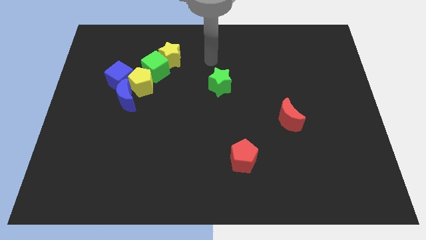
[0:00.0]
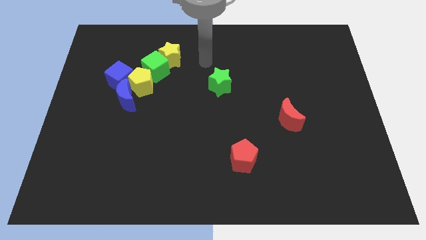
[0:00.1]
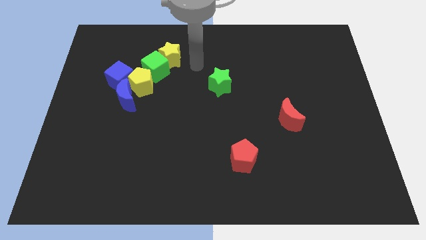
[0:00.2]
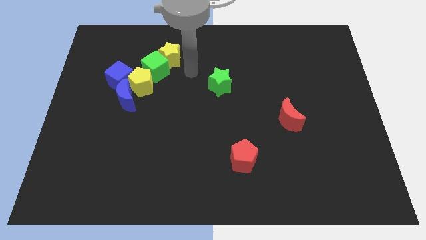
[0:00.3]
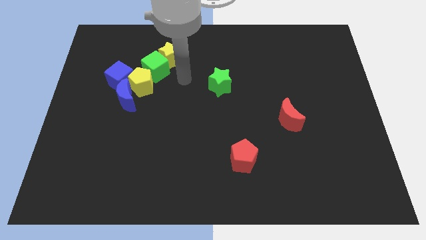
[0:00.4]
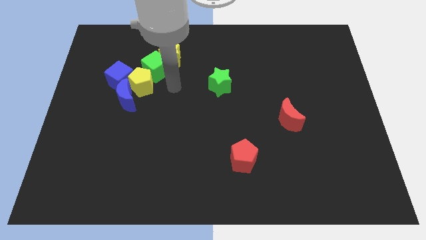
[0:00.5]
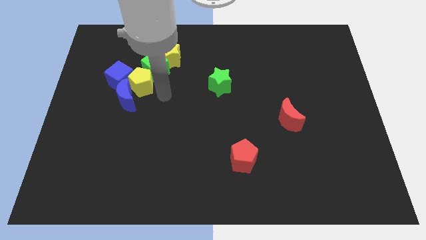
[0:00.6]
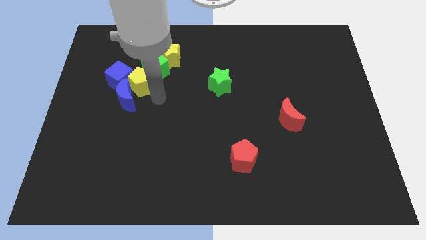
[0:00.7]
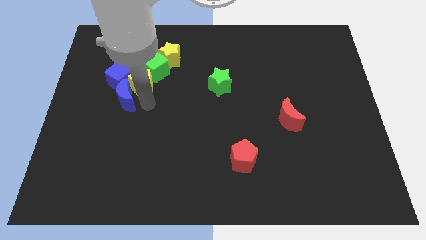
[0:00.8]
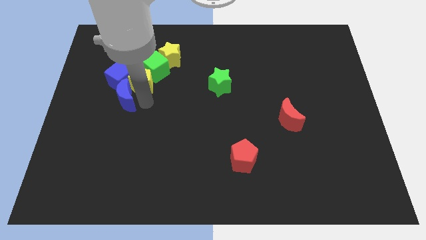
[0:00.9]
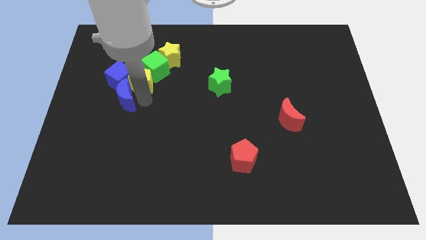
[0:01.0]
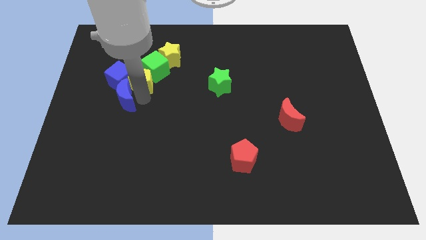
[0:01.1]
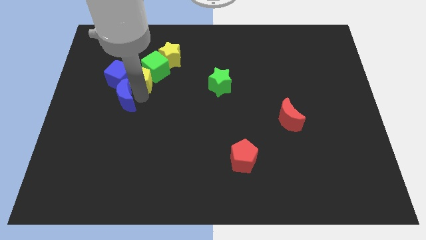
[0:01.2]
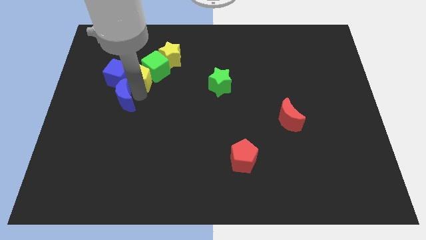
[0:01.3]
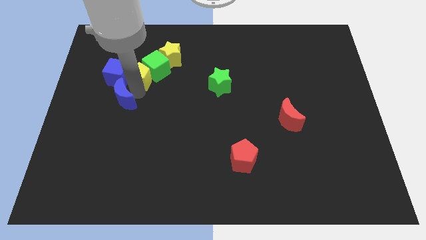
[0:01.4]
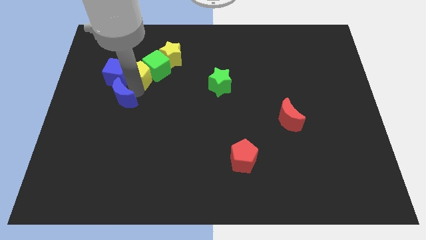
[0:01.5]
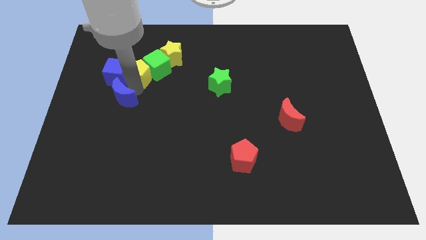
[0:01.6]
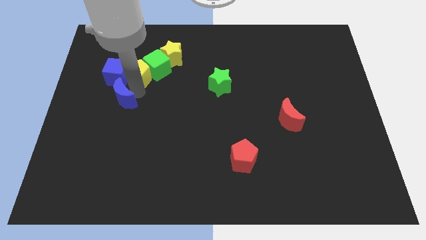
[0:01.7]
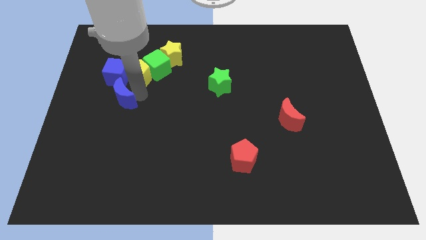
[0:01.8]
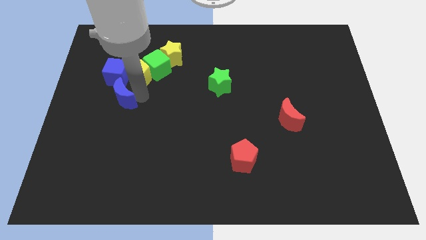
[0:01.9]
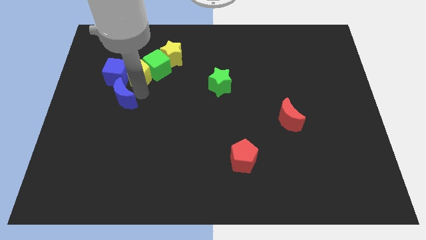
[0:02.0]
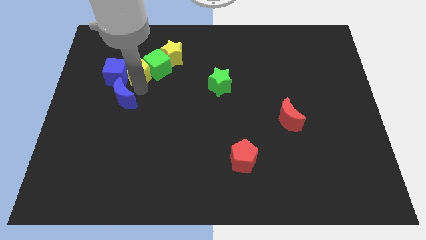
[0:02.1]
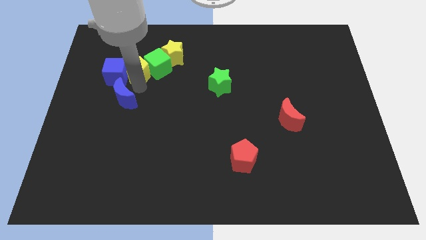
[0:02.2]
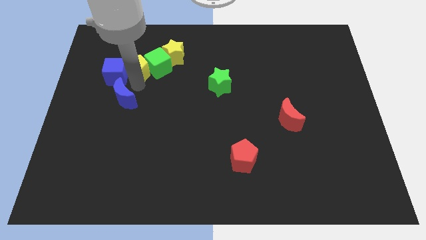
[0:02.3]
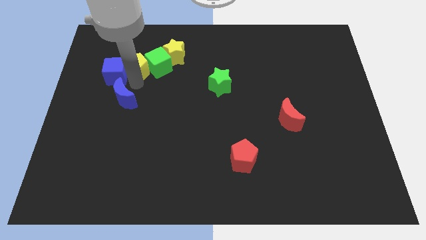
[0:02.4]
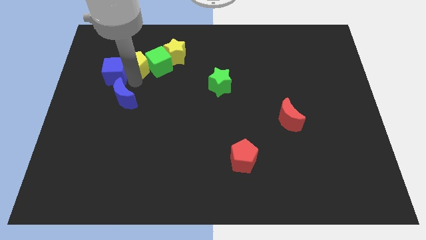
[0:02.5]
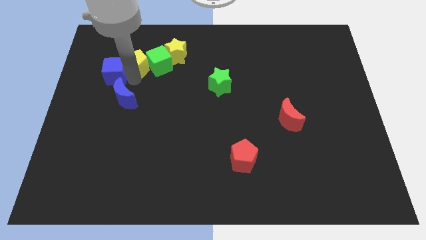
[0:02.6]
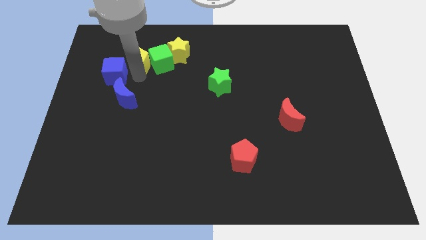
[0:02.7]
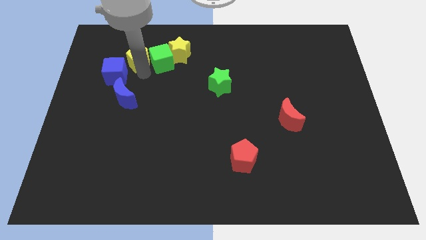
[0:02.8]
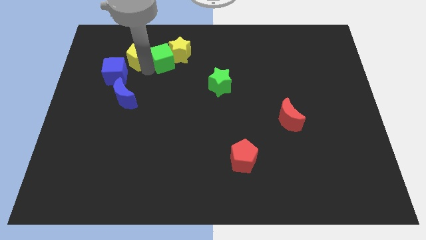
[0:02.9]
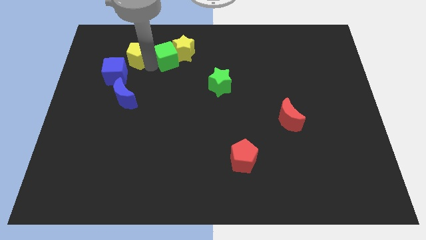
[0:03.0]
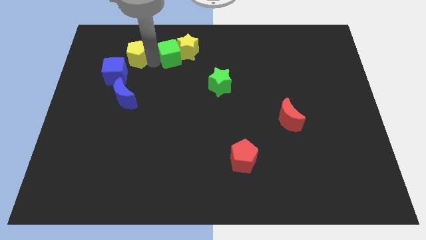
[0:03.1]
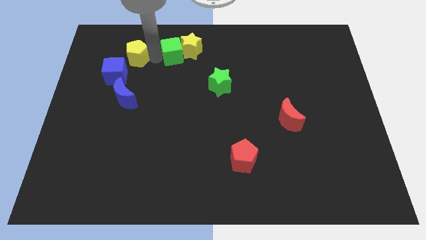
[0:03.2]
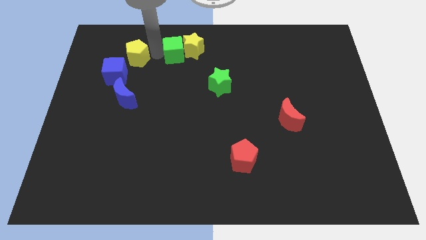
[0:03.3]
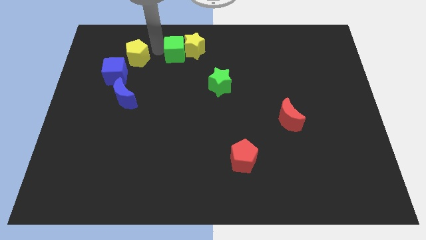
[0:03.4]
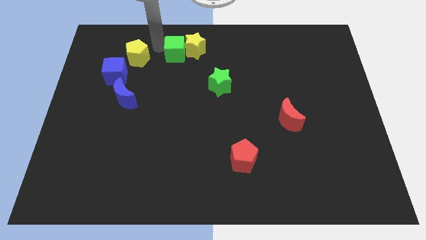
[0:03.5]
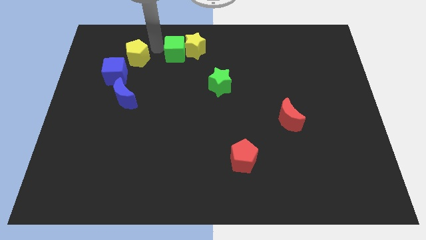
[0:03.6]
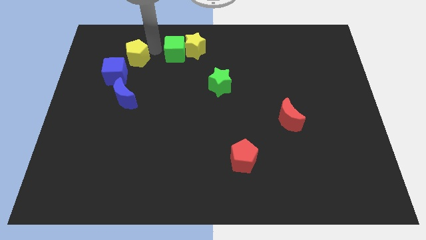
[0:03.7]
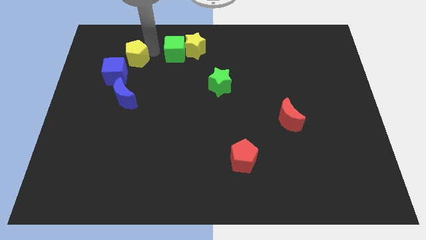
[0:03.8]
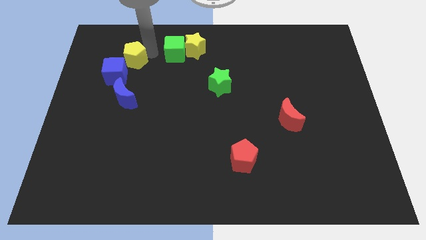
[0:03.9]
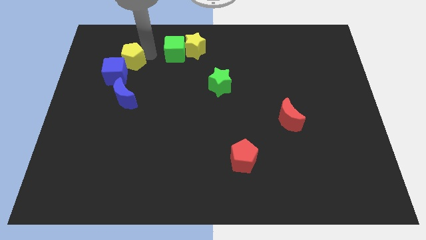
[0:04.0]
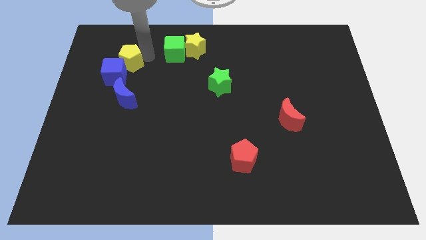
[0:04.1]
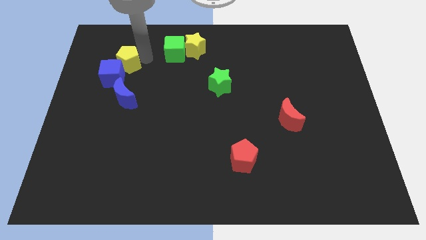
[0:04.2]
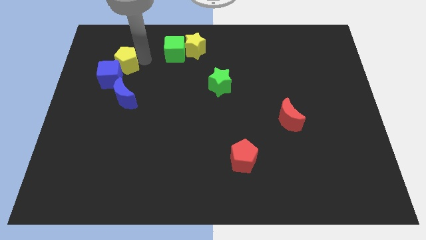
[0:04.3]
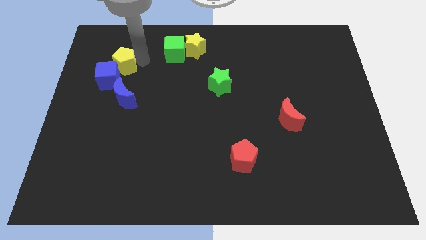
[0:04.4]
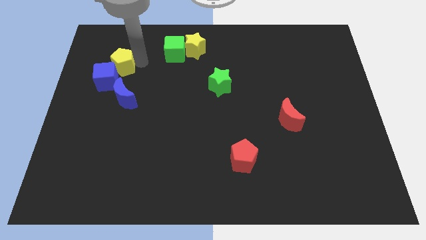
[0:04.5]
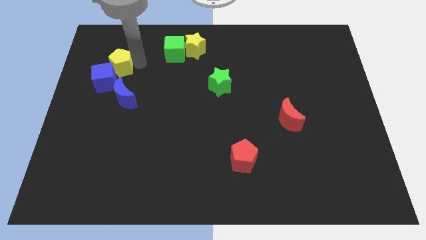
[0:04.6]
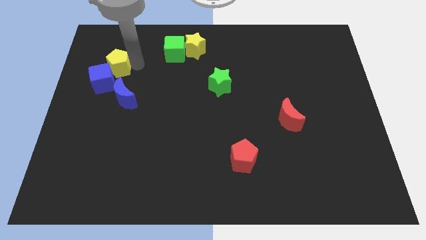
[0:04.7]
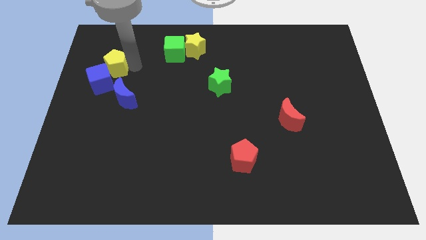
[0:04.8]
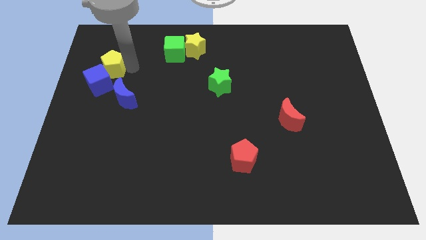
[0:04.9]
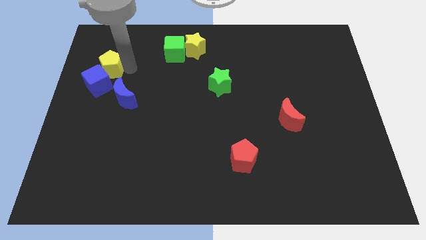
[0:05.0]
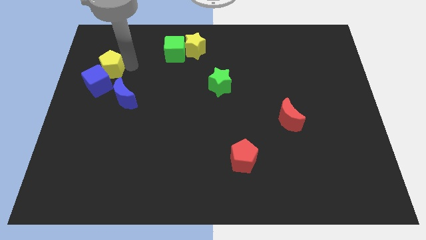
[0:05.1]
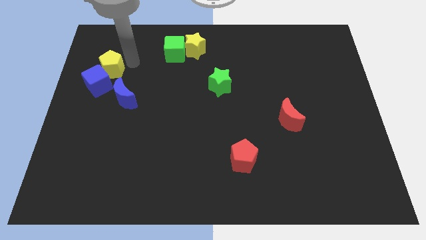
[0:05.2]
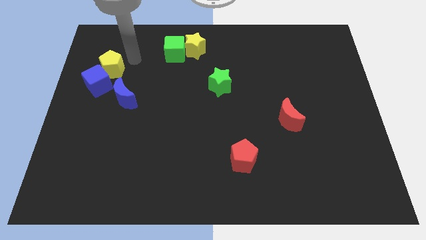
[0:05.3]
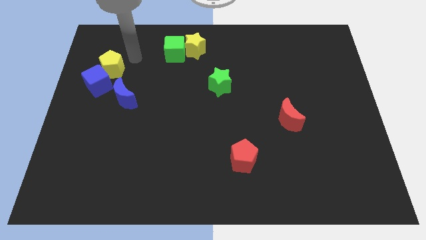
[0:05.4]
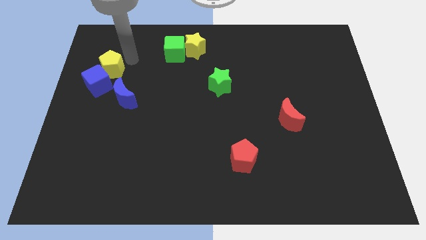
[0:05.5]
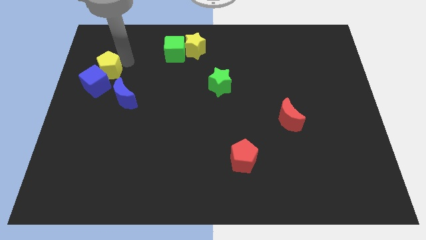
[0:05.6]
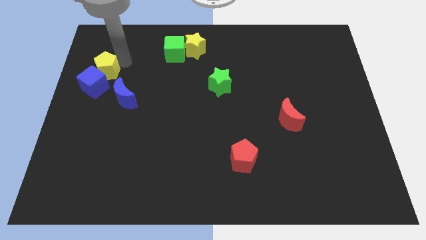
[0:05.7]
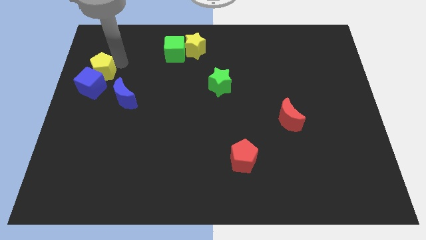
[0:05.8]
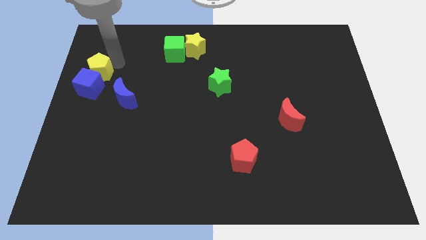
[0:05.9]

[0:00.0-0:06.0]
put the yellow pentagon to the left side
